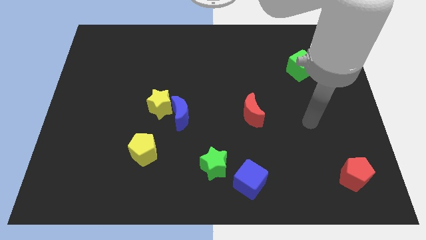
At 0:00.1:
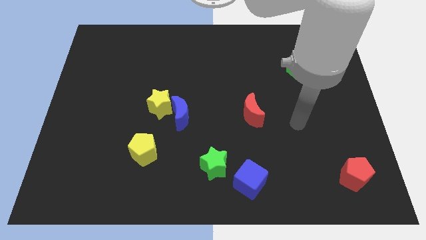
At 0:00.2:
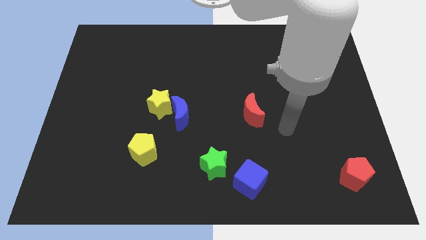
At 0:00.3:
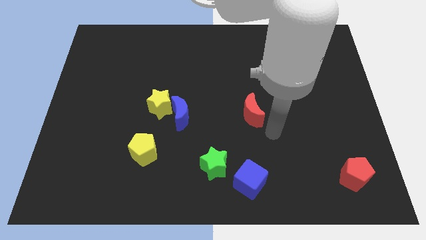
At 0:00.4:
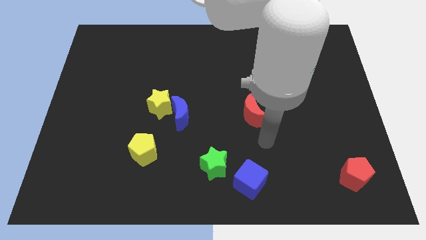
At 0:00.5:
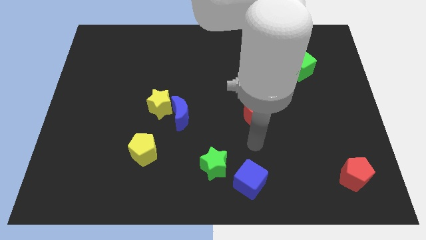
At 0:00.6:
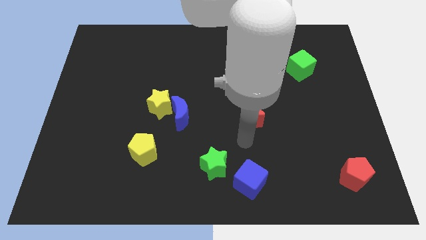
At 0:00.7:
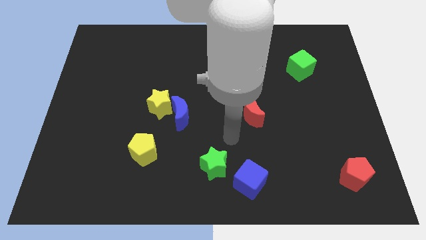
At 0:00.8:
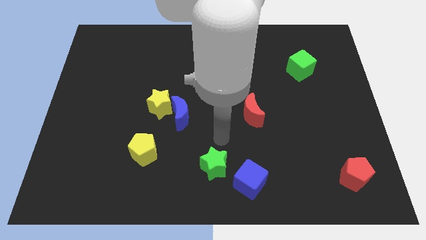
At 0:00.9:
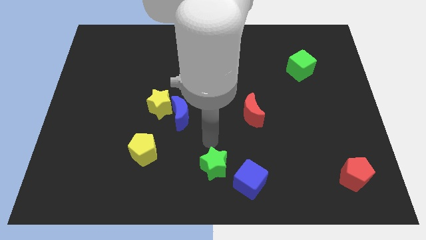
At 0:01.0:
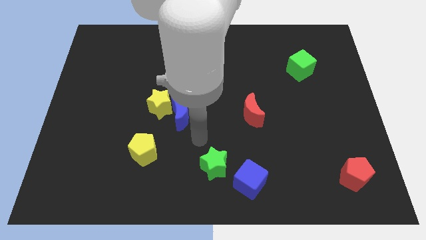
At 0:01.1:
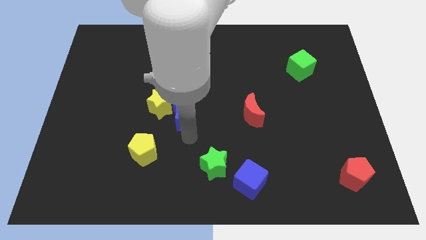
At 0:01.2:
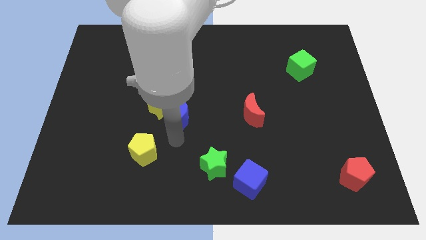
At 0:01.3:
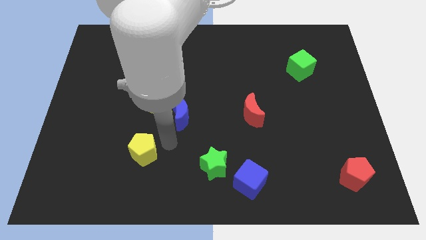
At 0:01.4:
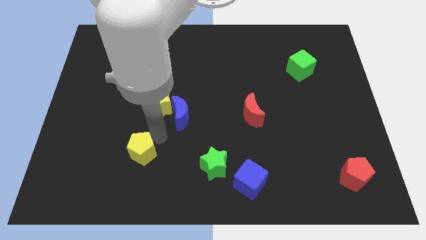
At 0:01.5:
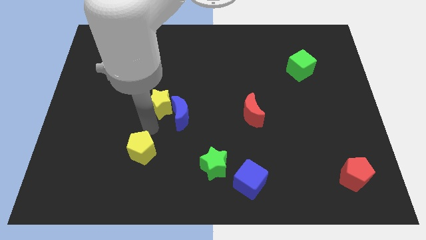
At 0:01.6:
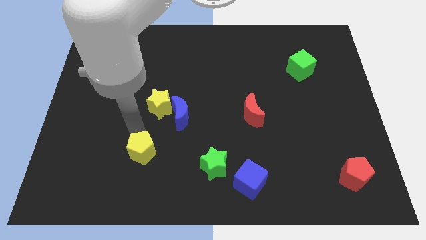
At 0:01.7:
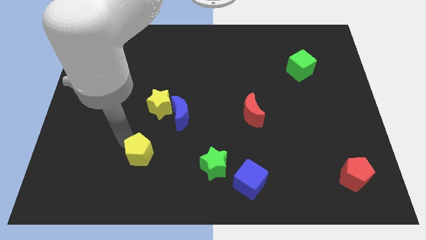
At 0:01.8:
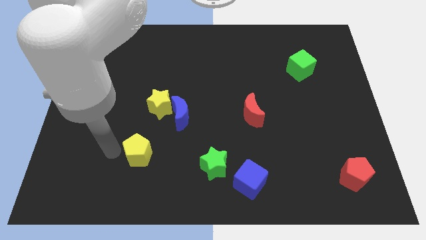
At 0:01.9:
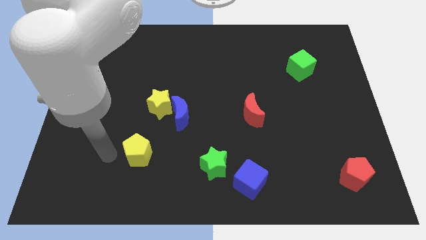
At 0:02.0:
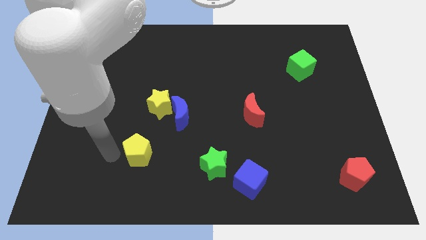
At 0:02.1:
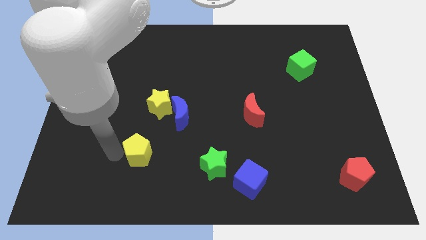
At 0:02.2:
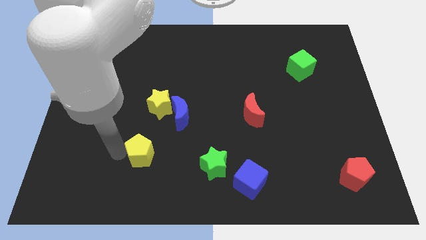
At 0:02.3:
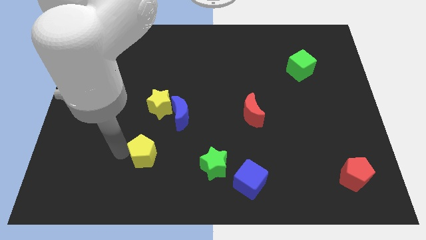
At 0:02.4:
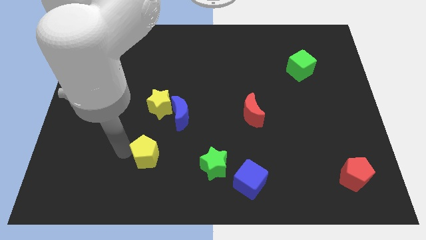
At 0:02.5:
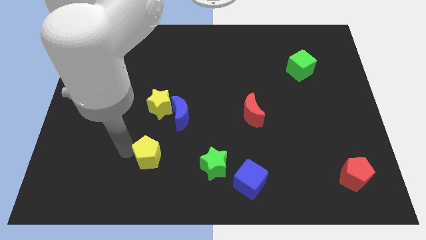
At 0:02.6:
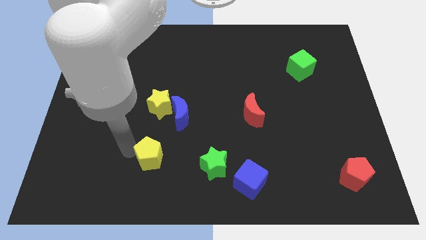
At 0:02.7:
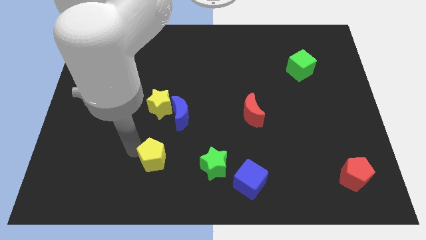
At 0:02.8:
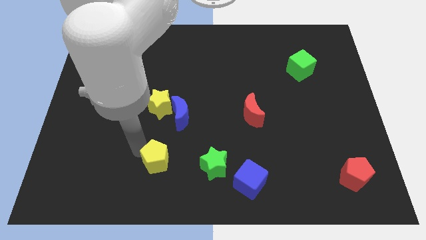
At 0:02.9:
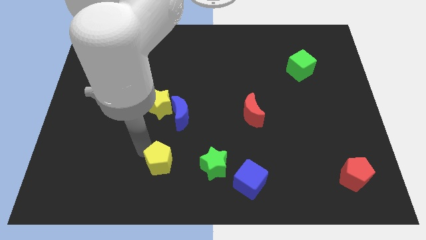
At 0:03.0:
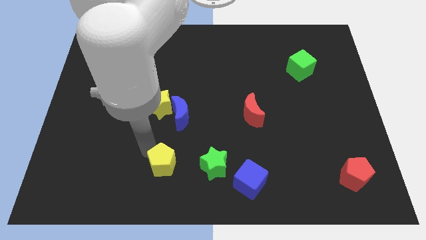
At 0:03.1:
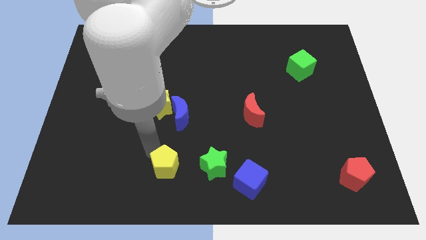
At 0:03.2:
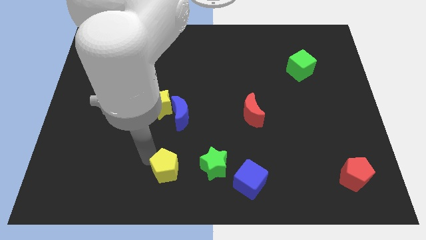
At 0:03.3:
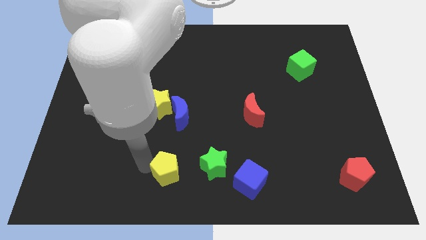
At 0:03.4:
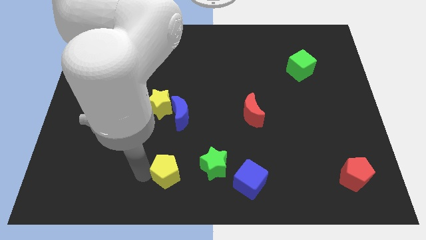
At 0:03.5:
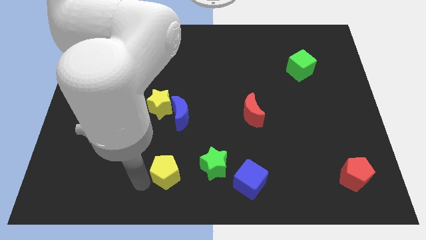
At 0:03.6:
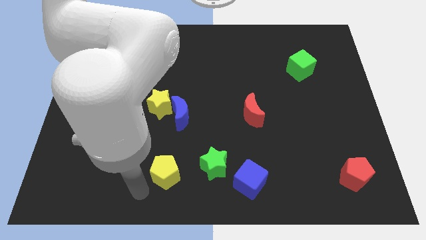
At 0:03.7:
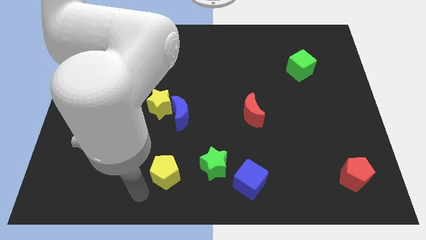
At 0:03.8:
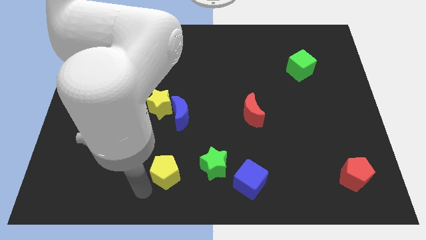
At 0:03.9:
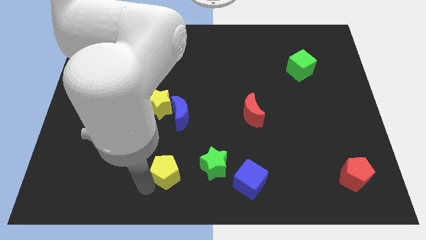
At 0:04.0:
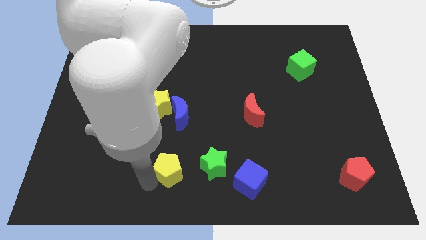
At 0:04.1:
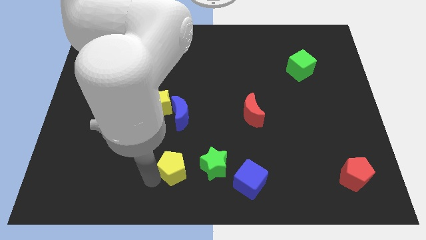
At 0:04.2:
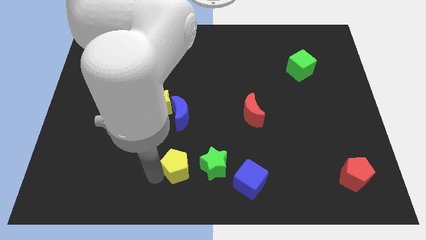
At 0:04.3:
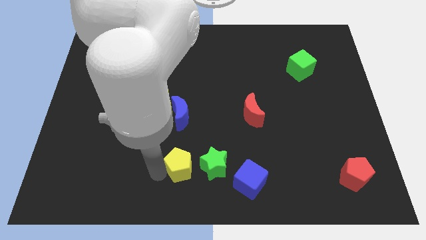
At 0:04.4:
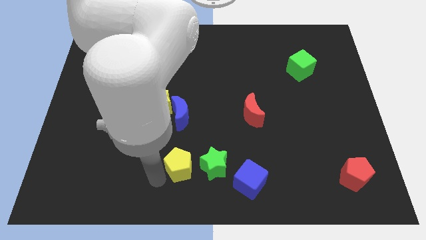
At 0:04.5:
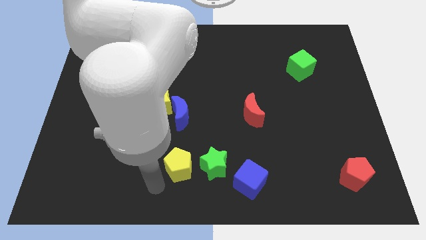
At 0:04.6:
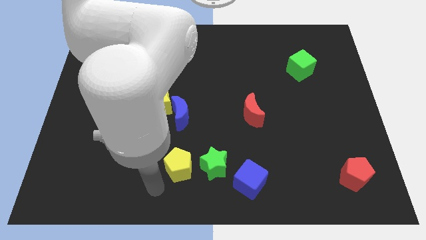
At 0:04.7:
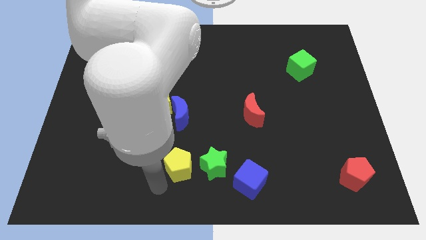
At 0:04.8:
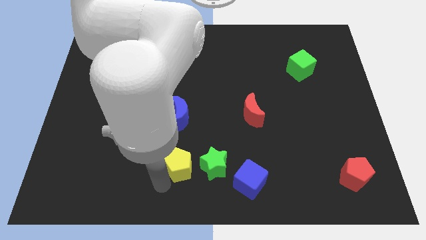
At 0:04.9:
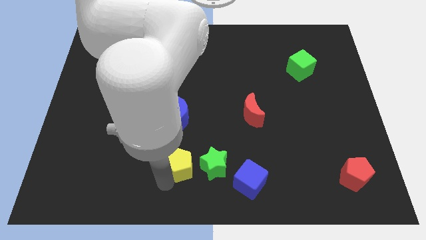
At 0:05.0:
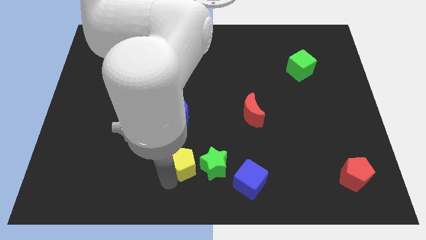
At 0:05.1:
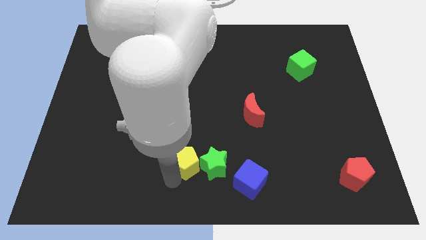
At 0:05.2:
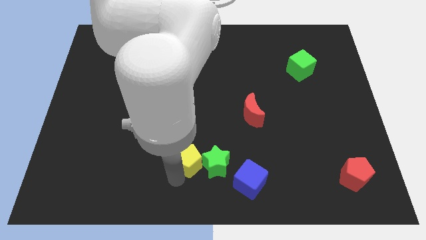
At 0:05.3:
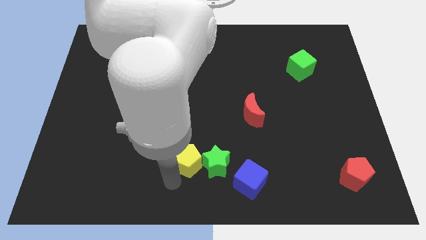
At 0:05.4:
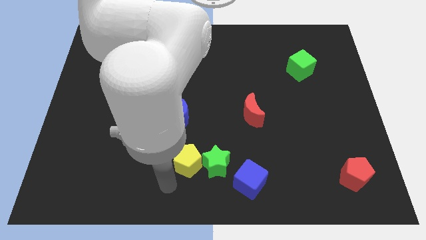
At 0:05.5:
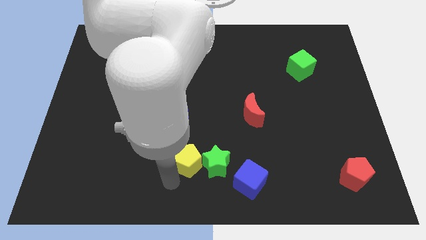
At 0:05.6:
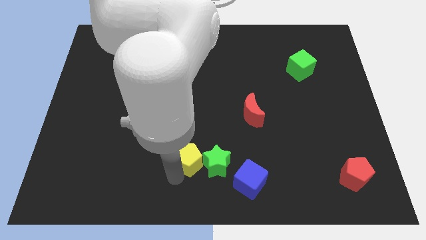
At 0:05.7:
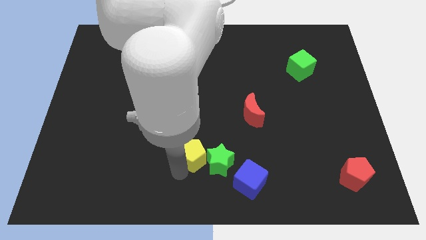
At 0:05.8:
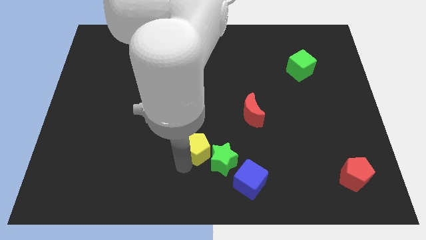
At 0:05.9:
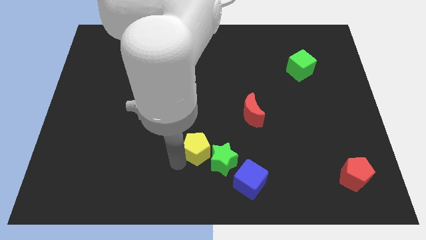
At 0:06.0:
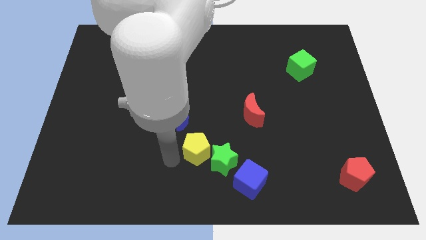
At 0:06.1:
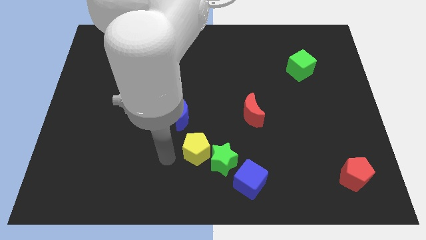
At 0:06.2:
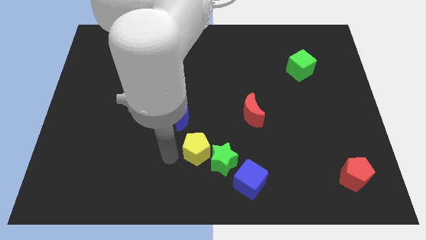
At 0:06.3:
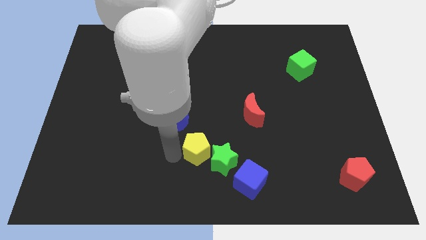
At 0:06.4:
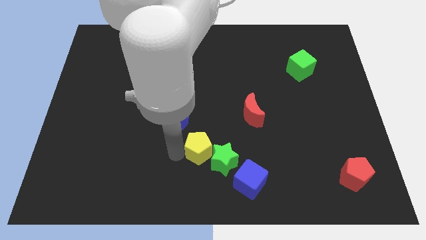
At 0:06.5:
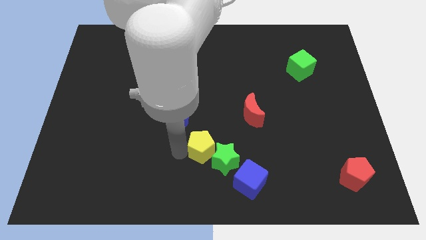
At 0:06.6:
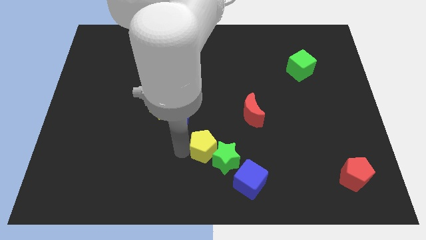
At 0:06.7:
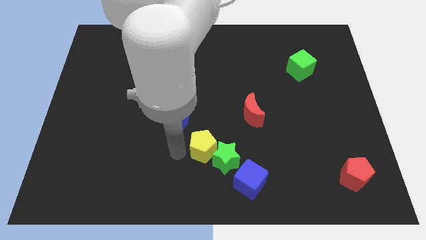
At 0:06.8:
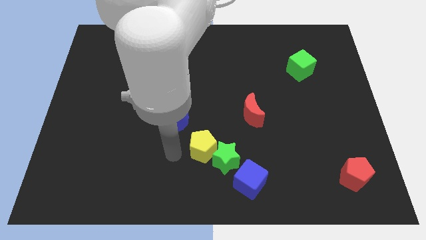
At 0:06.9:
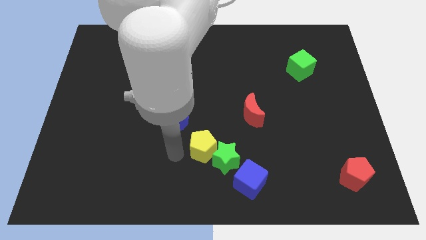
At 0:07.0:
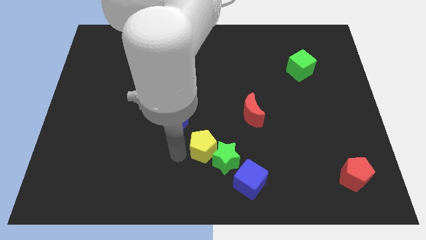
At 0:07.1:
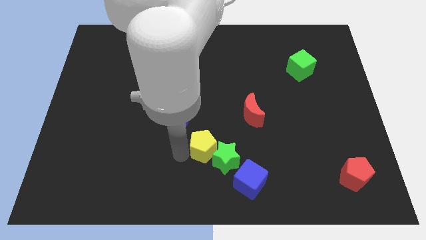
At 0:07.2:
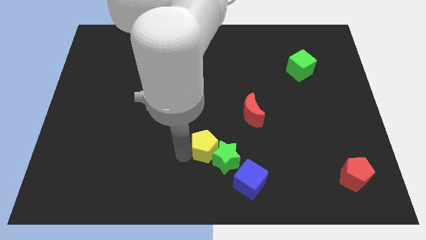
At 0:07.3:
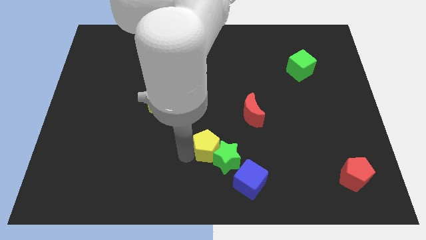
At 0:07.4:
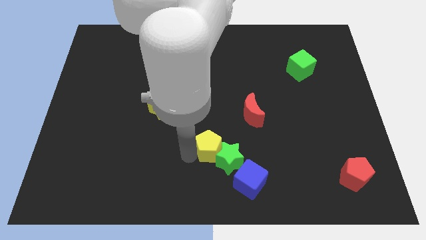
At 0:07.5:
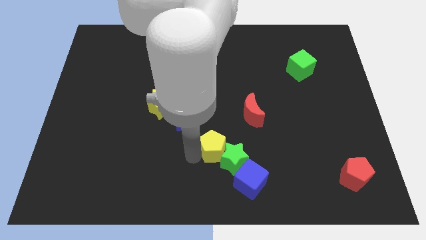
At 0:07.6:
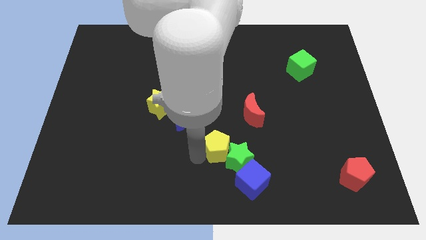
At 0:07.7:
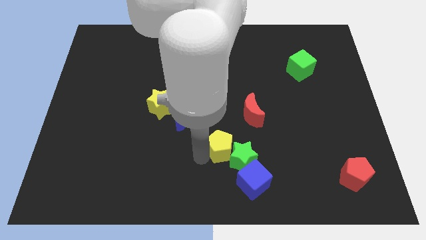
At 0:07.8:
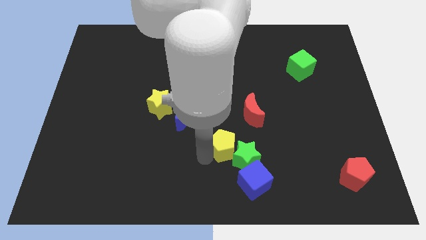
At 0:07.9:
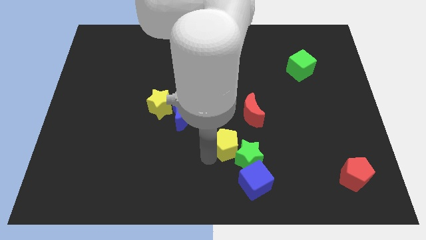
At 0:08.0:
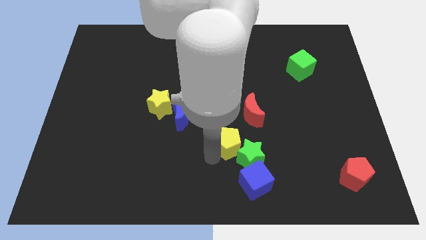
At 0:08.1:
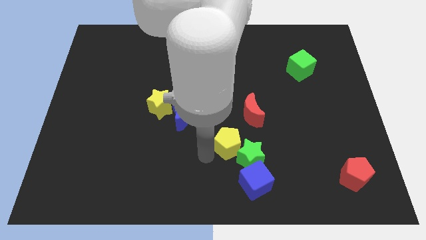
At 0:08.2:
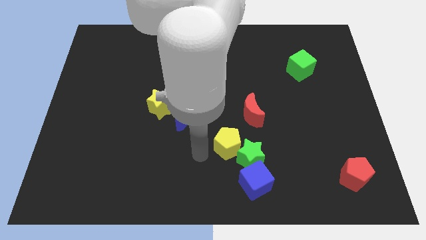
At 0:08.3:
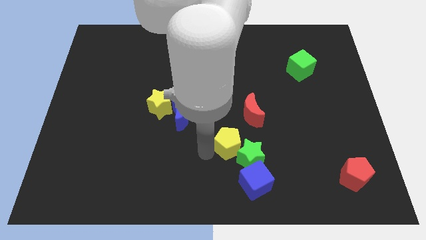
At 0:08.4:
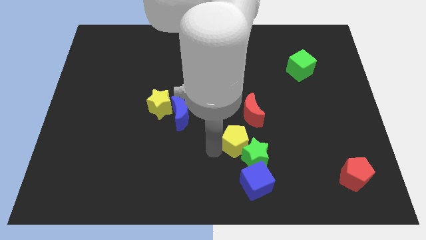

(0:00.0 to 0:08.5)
put the yellow pentagon above the blue cube
